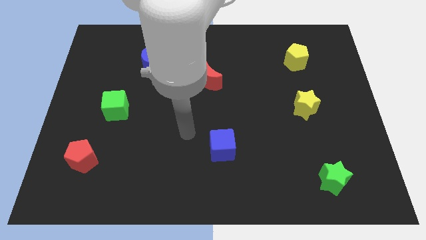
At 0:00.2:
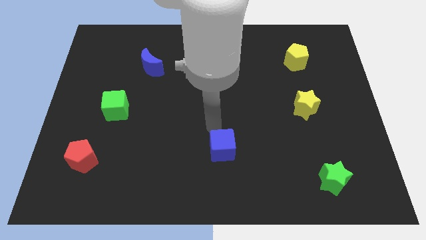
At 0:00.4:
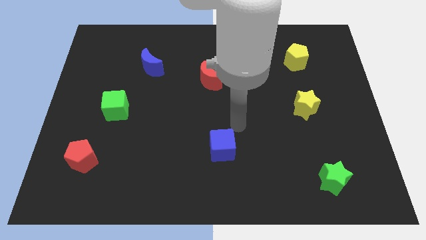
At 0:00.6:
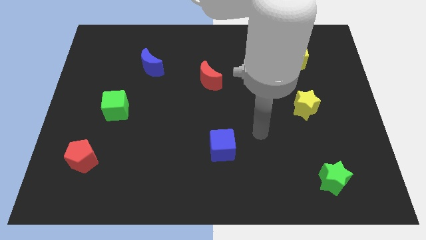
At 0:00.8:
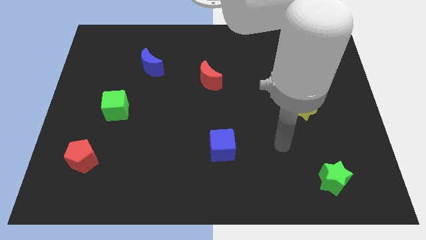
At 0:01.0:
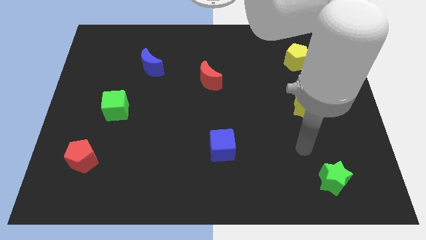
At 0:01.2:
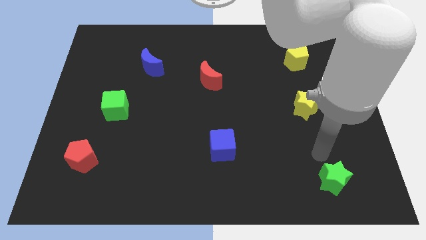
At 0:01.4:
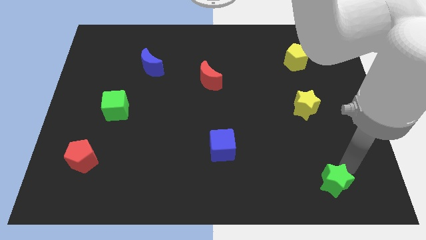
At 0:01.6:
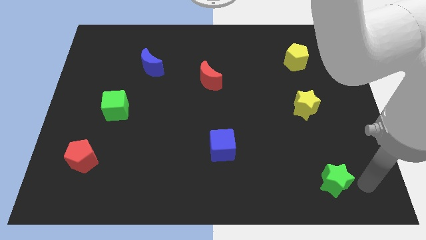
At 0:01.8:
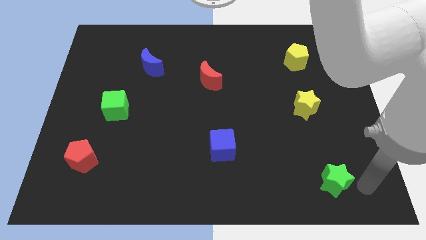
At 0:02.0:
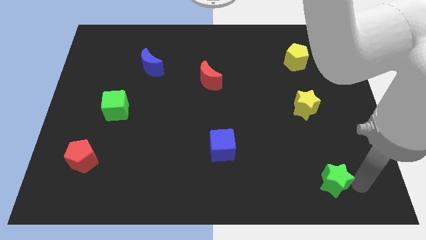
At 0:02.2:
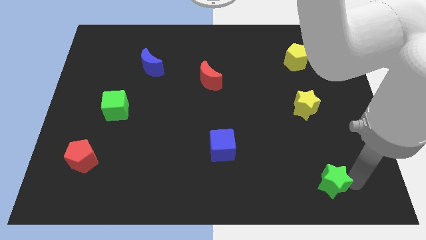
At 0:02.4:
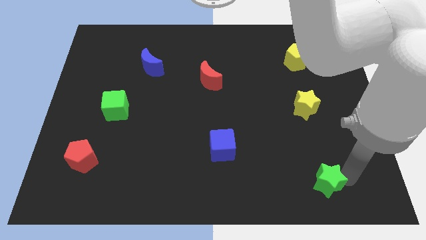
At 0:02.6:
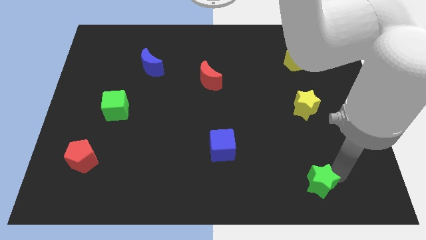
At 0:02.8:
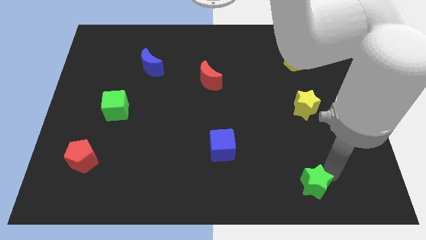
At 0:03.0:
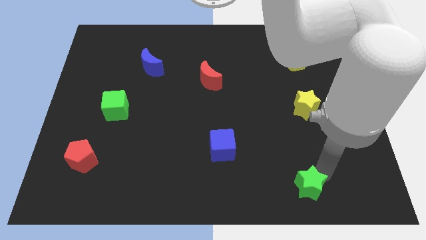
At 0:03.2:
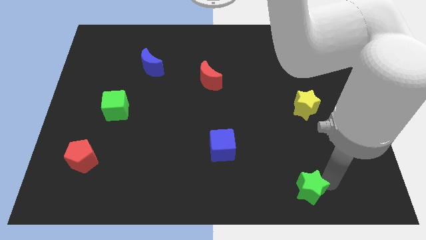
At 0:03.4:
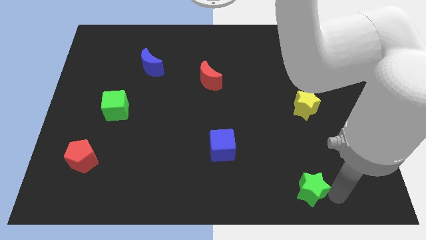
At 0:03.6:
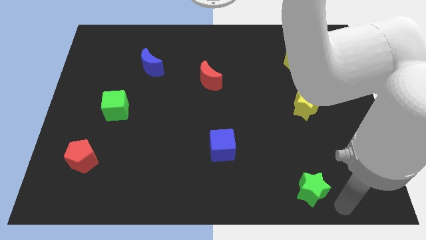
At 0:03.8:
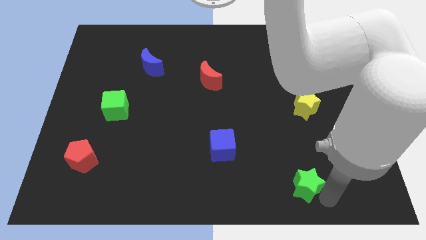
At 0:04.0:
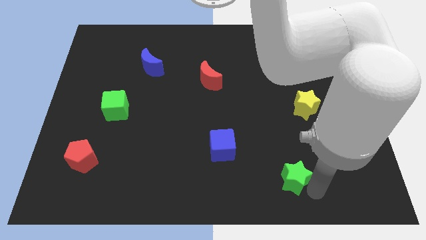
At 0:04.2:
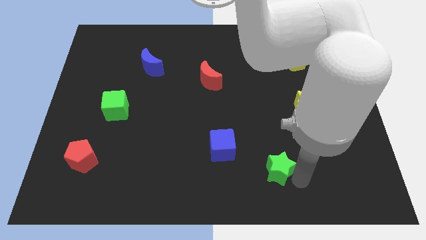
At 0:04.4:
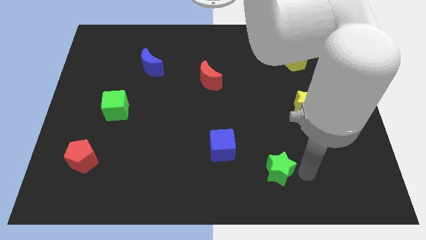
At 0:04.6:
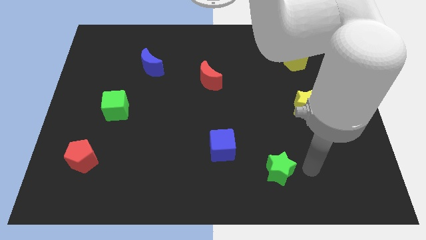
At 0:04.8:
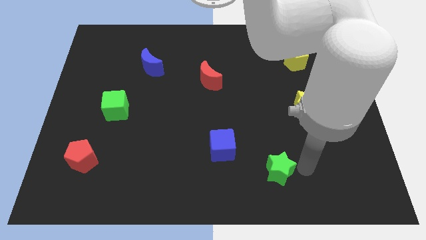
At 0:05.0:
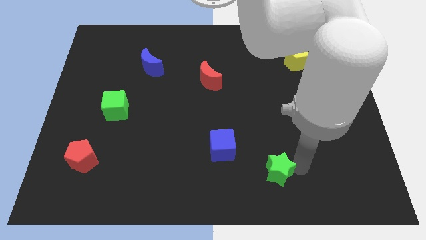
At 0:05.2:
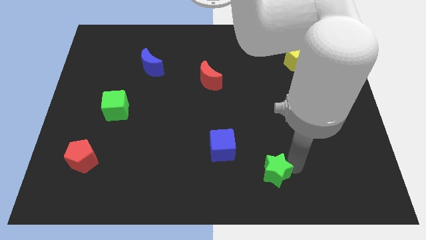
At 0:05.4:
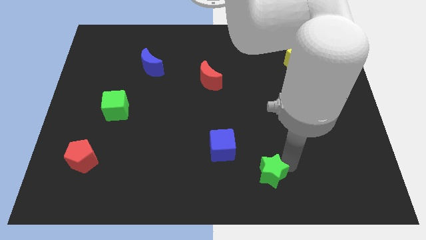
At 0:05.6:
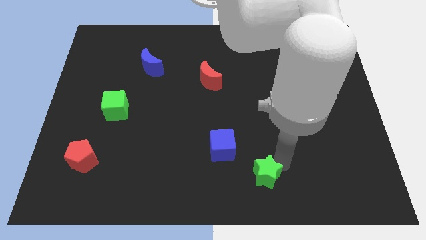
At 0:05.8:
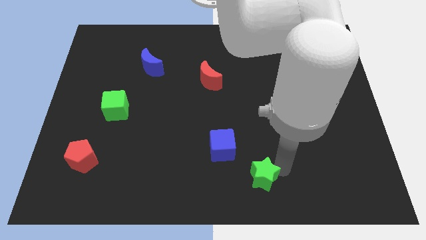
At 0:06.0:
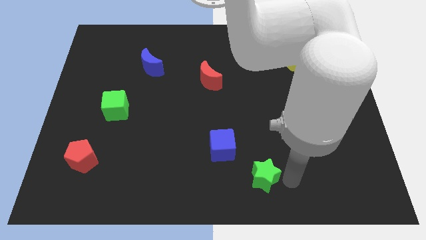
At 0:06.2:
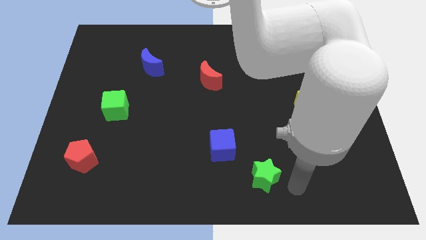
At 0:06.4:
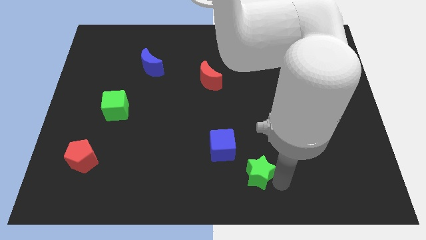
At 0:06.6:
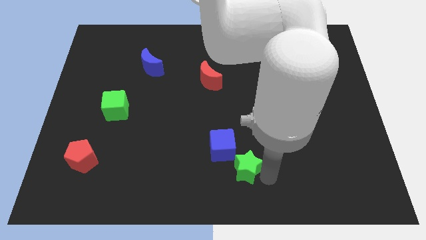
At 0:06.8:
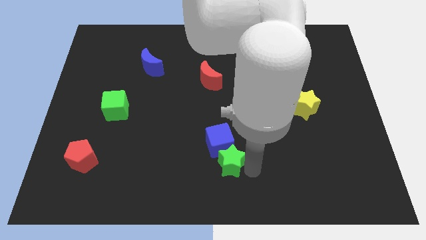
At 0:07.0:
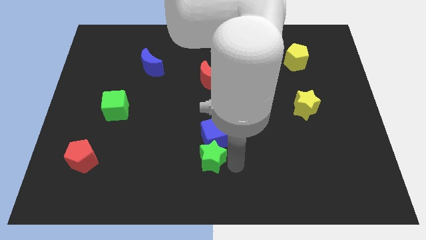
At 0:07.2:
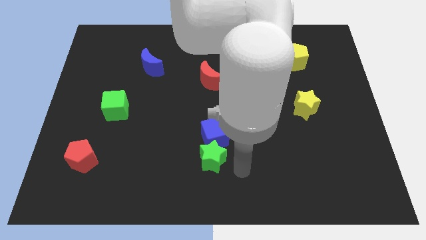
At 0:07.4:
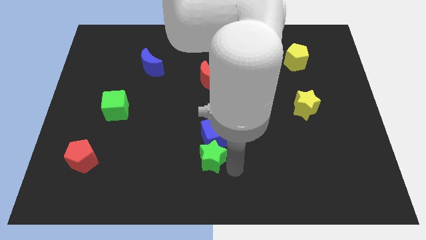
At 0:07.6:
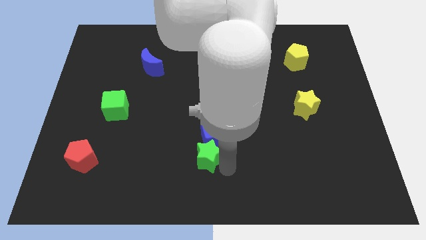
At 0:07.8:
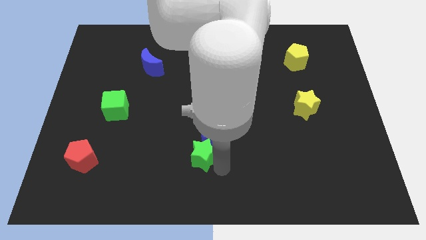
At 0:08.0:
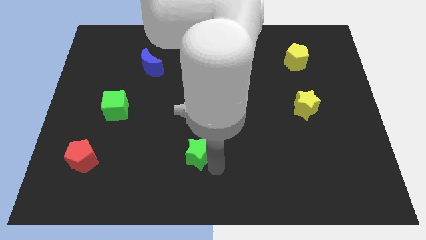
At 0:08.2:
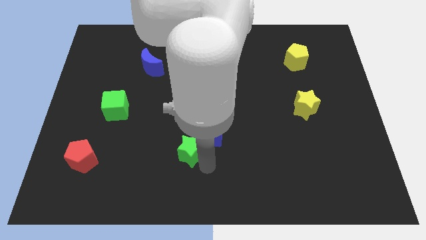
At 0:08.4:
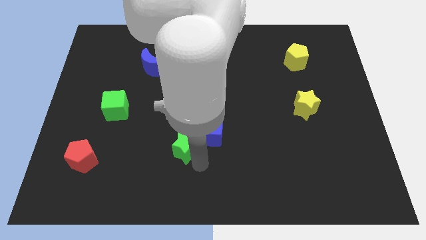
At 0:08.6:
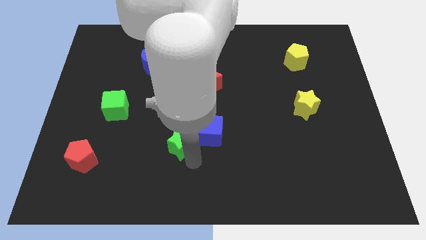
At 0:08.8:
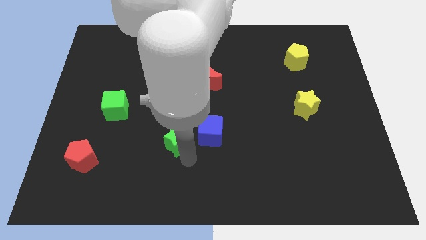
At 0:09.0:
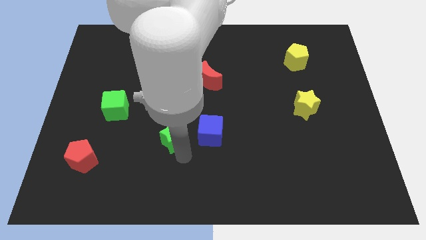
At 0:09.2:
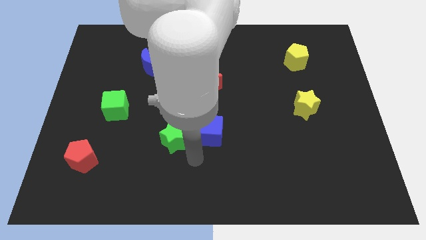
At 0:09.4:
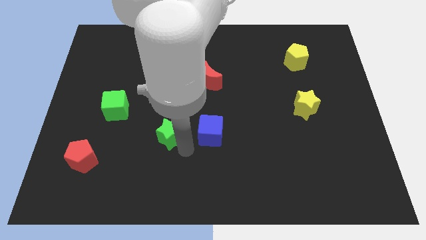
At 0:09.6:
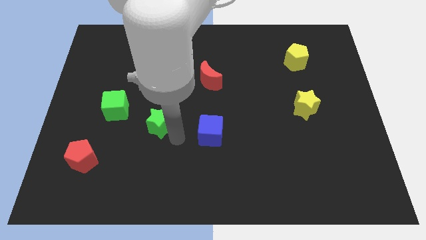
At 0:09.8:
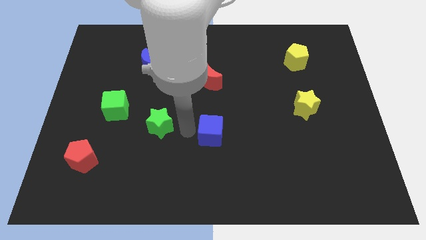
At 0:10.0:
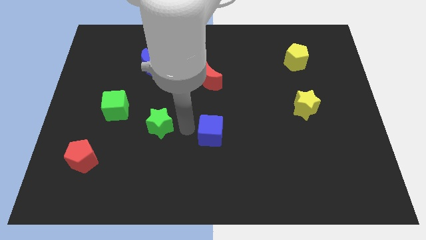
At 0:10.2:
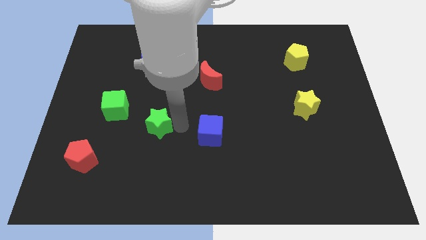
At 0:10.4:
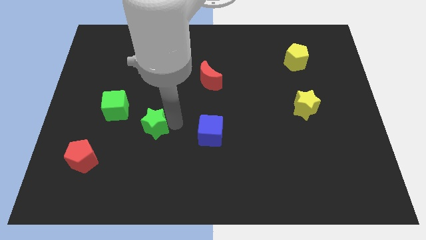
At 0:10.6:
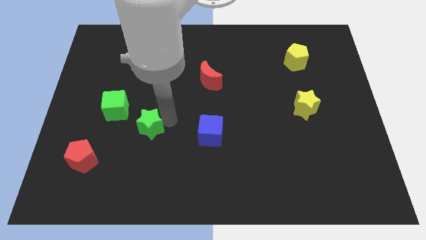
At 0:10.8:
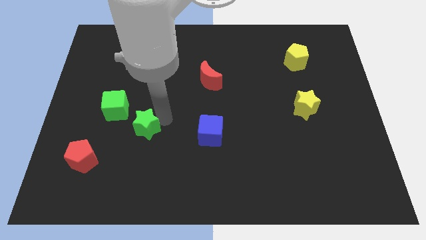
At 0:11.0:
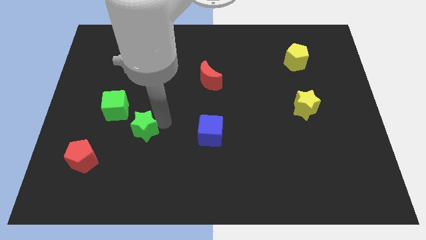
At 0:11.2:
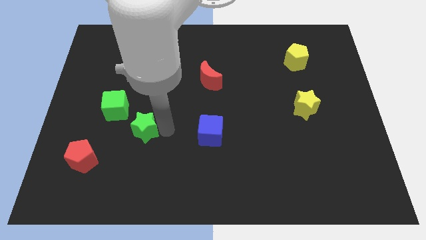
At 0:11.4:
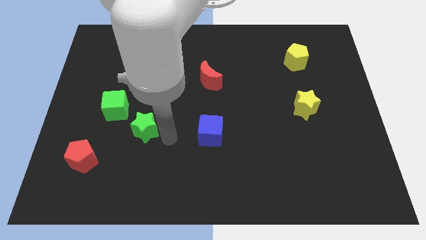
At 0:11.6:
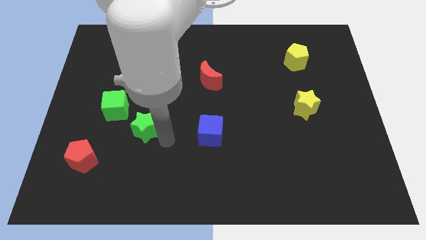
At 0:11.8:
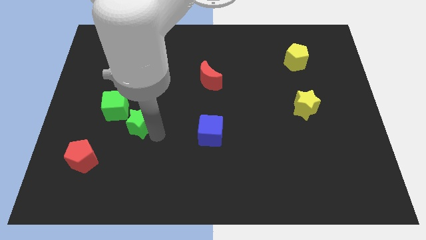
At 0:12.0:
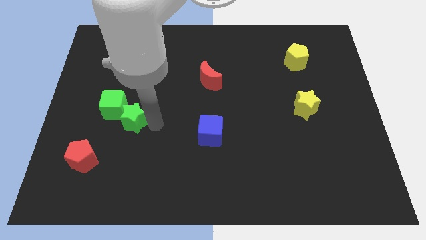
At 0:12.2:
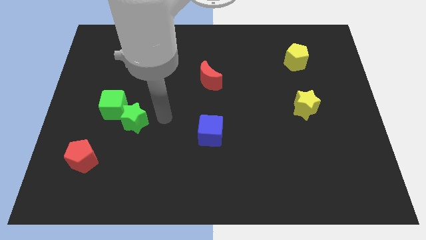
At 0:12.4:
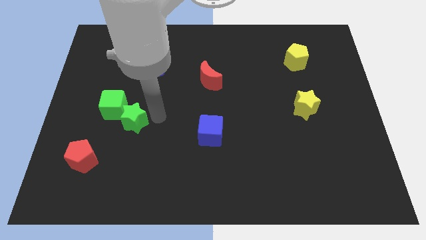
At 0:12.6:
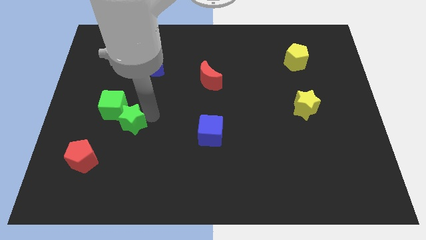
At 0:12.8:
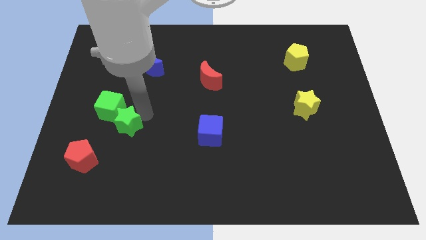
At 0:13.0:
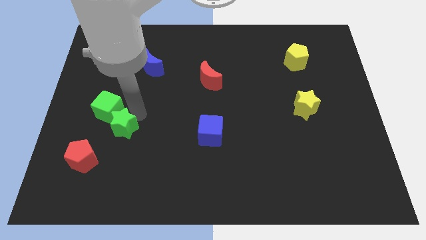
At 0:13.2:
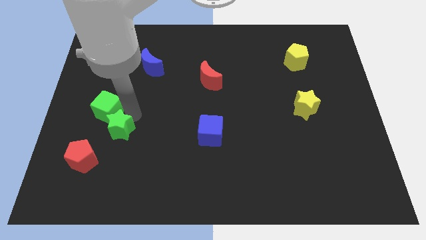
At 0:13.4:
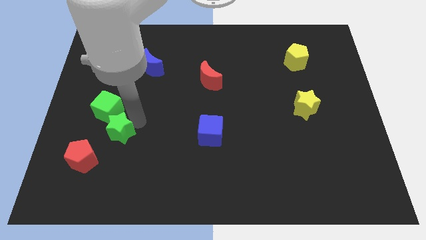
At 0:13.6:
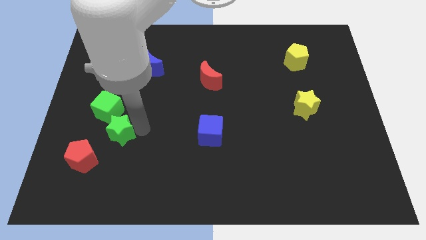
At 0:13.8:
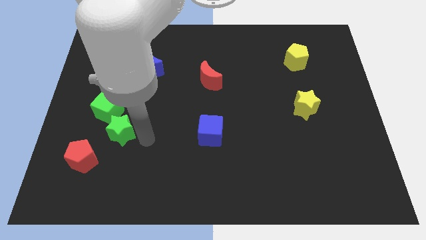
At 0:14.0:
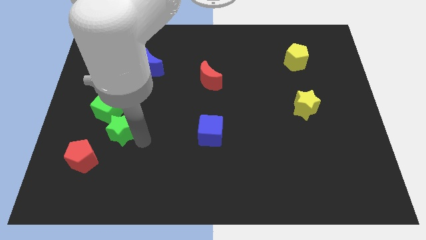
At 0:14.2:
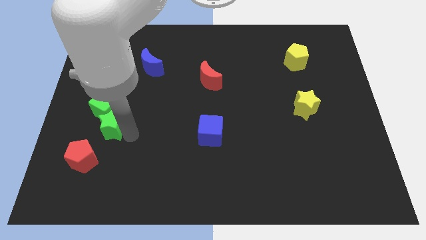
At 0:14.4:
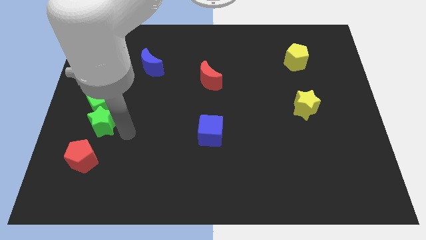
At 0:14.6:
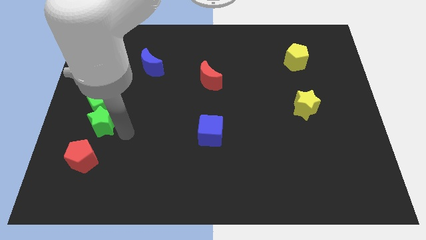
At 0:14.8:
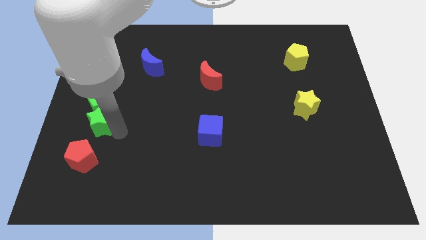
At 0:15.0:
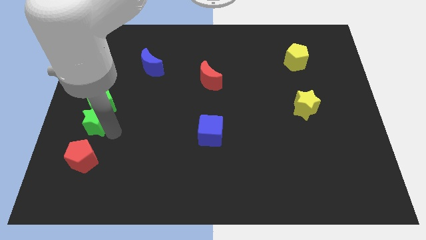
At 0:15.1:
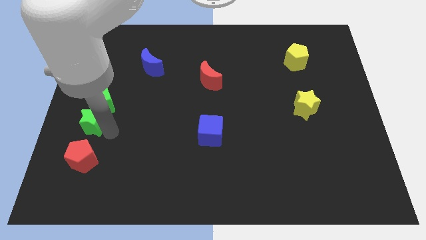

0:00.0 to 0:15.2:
move the green star to the left side of the board
